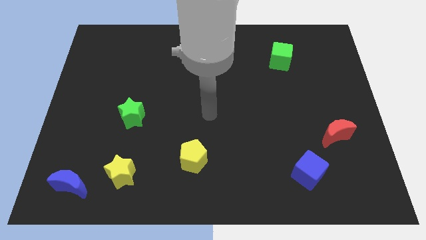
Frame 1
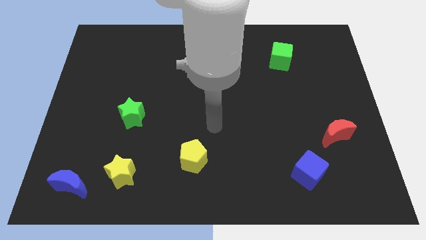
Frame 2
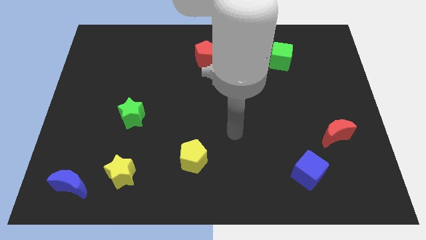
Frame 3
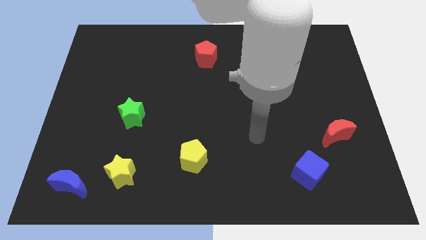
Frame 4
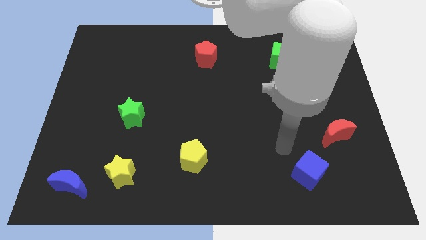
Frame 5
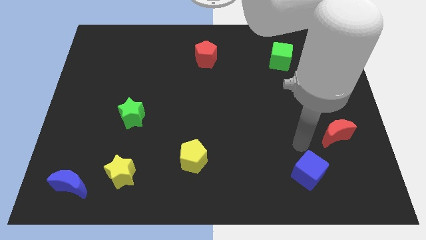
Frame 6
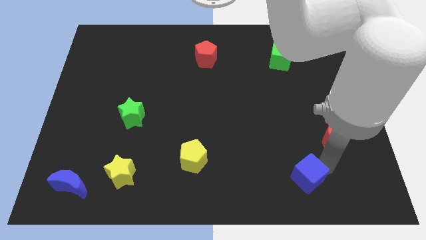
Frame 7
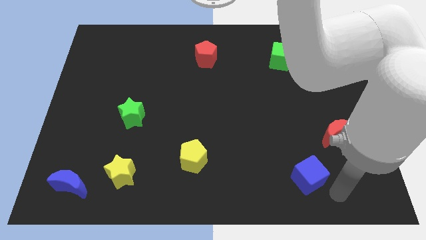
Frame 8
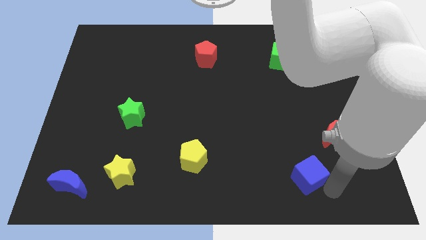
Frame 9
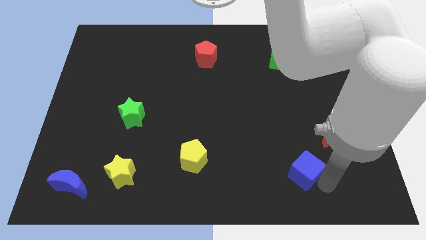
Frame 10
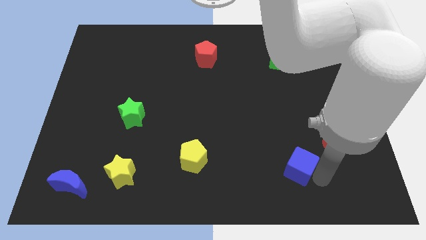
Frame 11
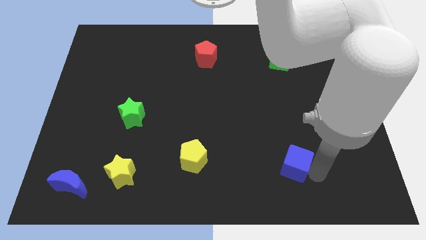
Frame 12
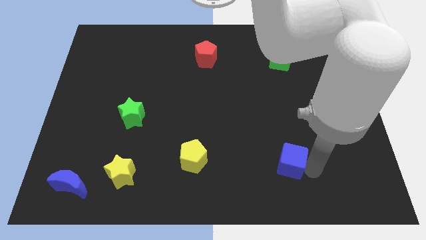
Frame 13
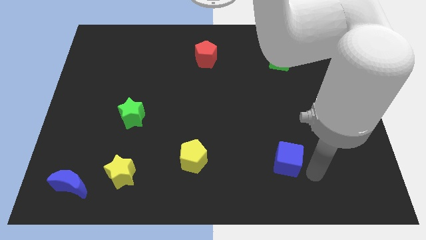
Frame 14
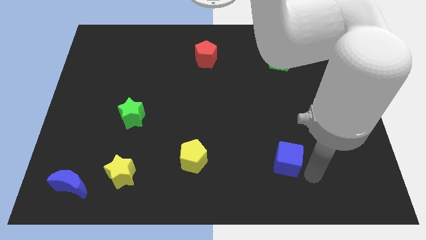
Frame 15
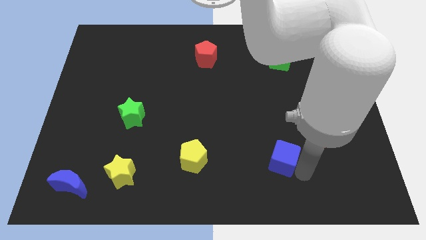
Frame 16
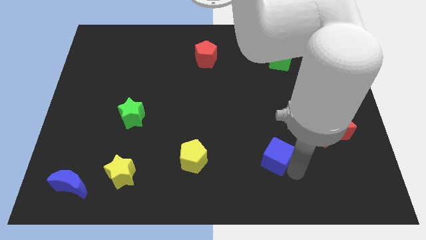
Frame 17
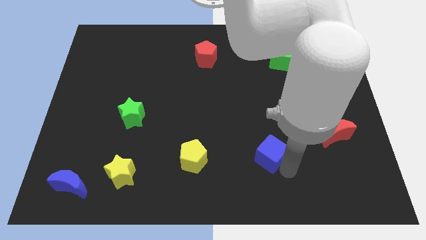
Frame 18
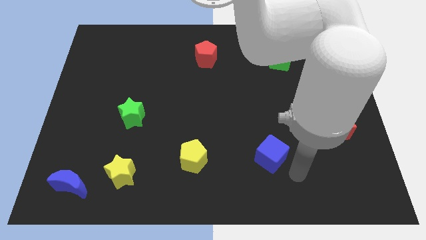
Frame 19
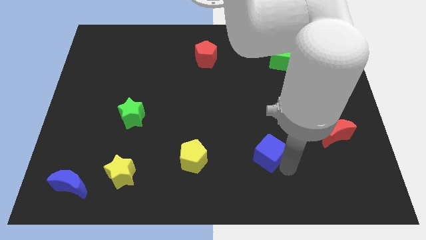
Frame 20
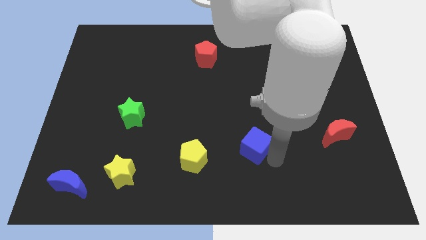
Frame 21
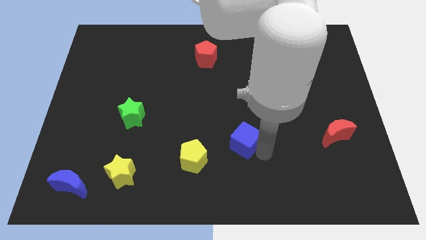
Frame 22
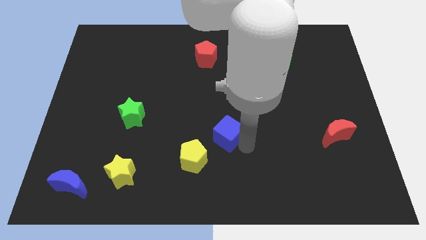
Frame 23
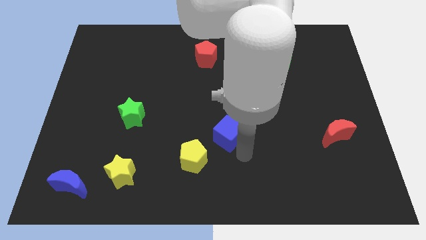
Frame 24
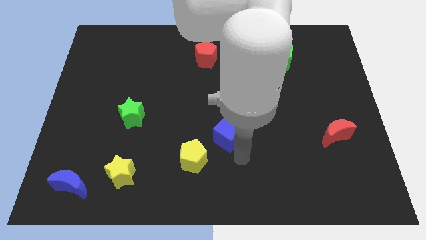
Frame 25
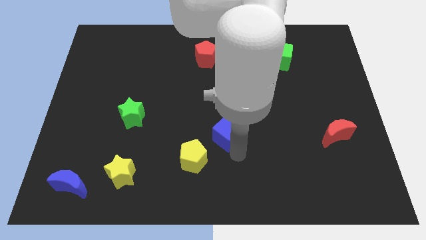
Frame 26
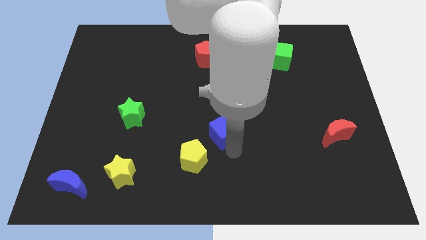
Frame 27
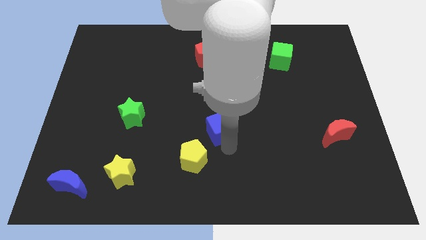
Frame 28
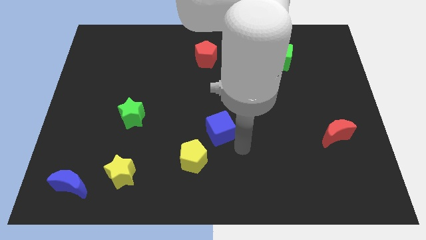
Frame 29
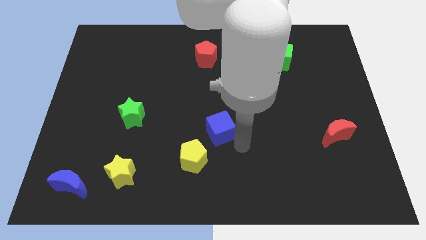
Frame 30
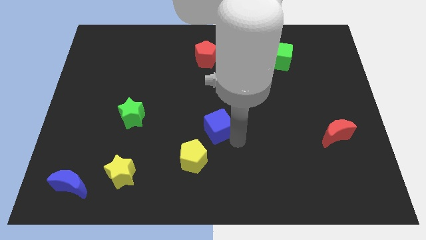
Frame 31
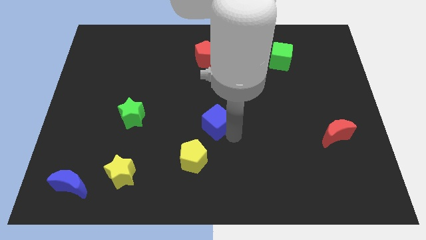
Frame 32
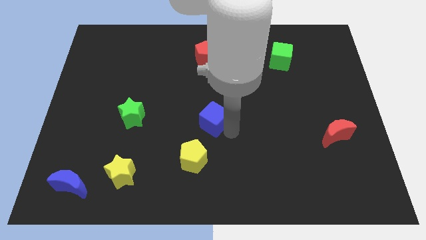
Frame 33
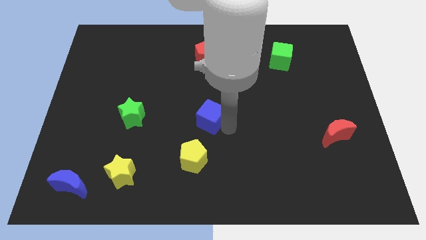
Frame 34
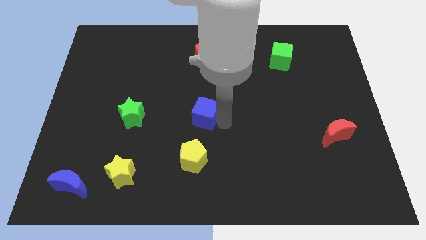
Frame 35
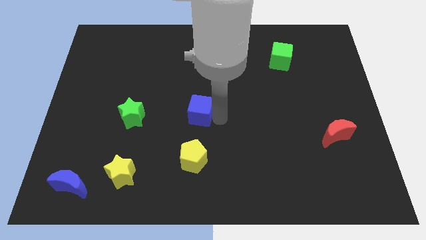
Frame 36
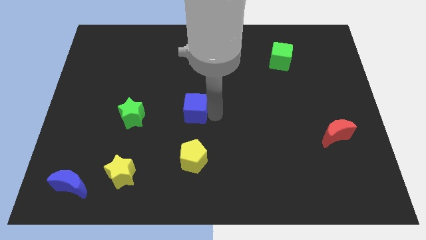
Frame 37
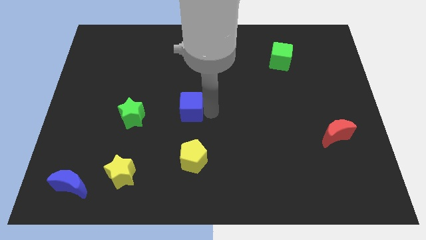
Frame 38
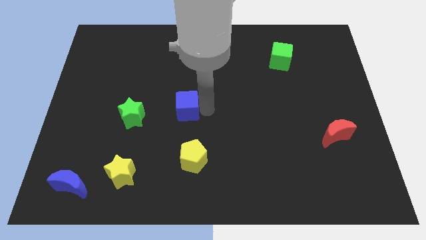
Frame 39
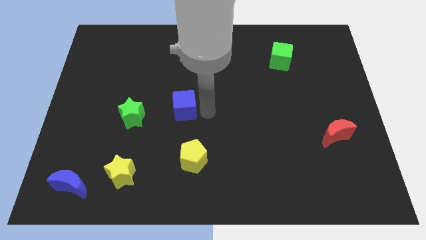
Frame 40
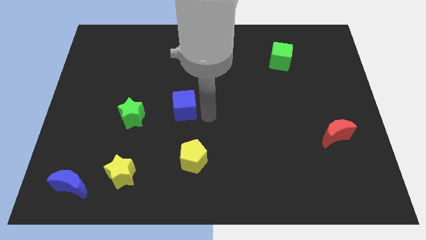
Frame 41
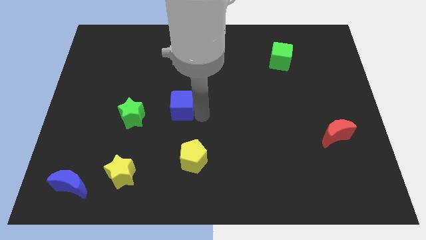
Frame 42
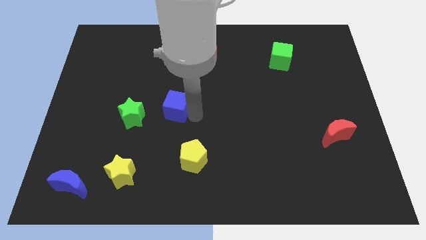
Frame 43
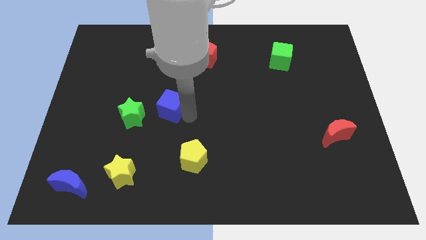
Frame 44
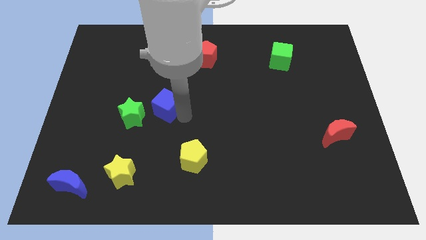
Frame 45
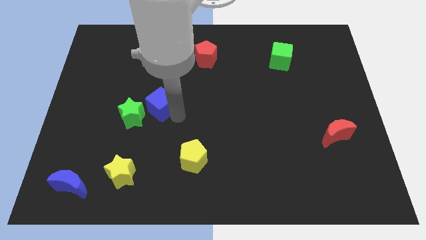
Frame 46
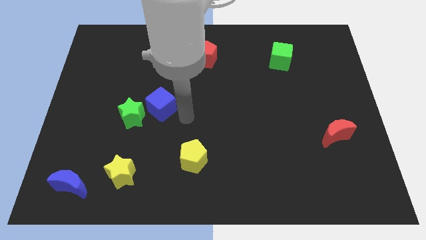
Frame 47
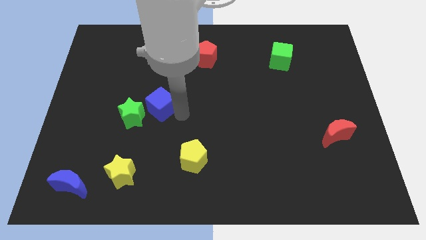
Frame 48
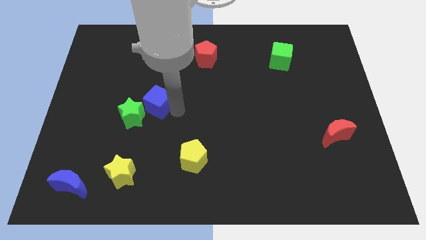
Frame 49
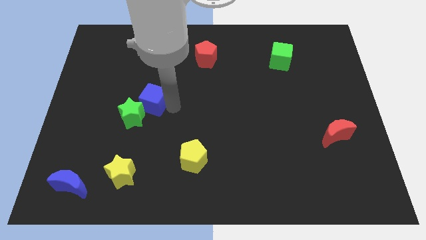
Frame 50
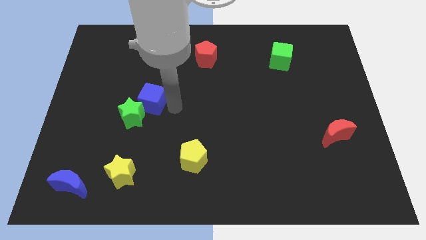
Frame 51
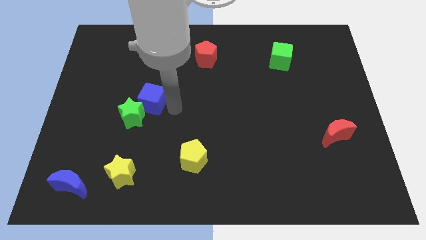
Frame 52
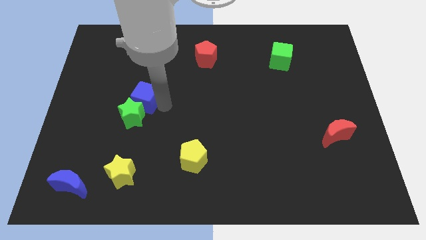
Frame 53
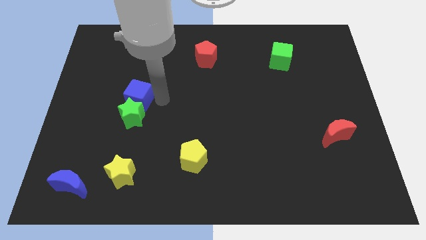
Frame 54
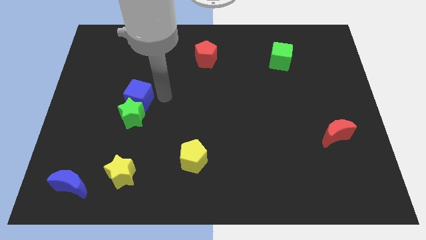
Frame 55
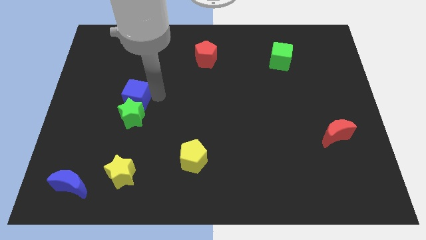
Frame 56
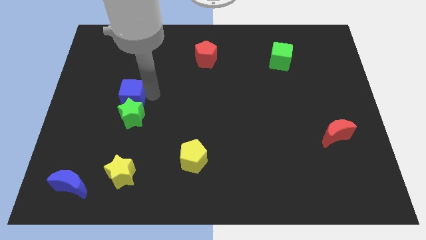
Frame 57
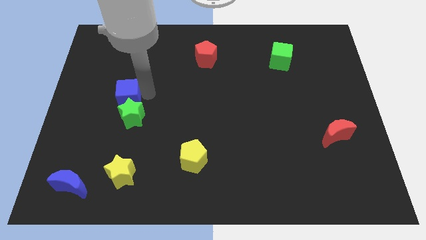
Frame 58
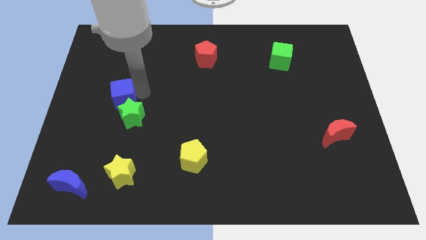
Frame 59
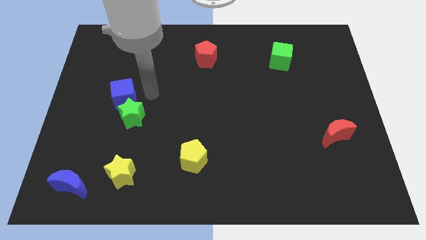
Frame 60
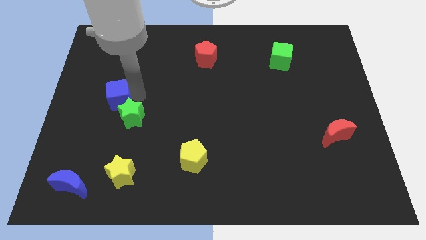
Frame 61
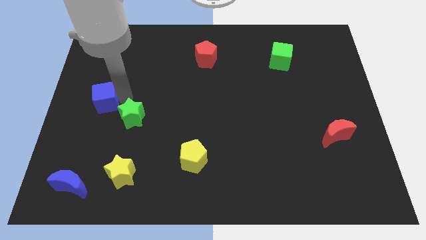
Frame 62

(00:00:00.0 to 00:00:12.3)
move the blue cube to the left side
